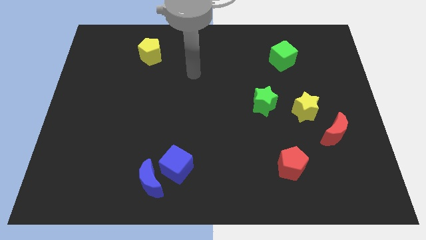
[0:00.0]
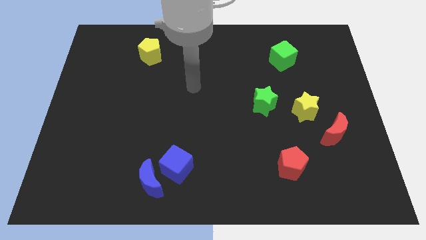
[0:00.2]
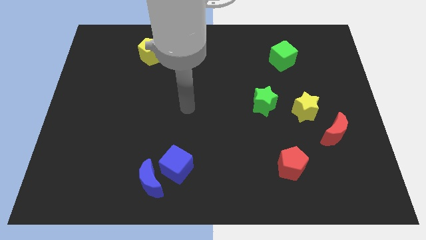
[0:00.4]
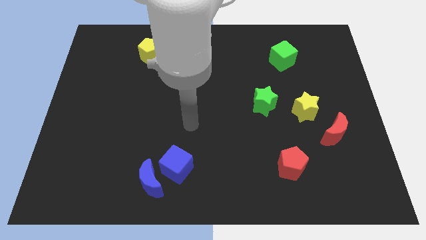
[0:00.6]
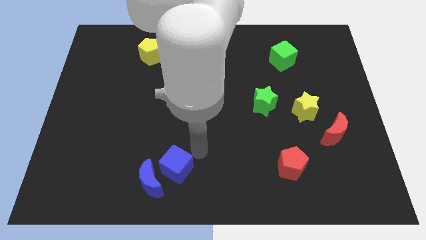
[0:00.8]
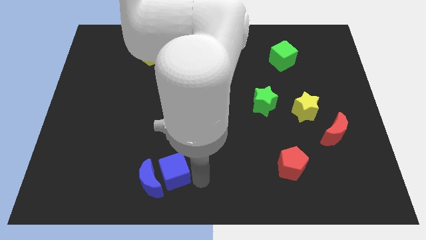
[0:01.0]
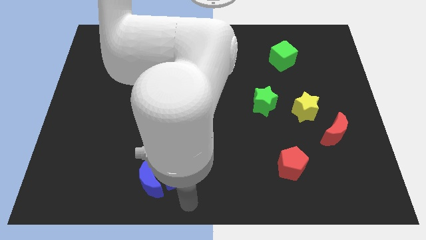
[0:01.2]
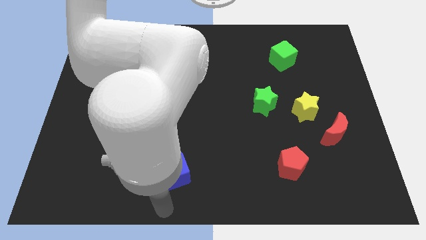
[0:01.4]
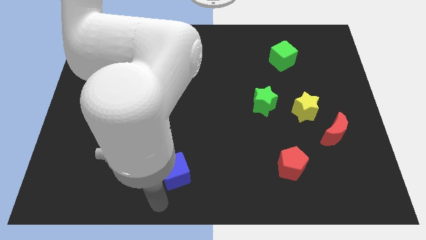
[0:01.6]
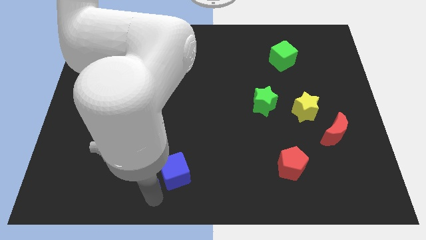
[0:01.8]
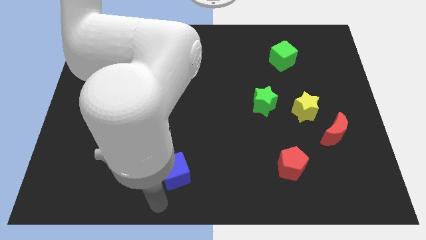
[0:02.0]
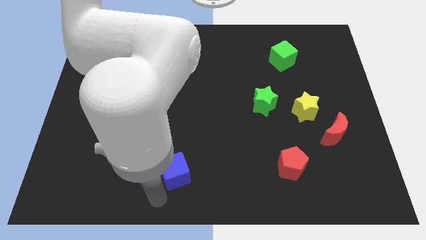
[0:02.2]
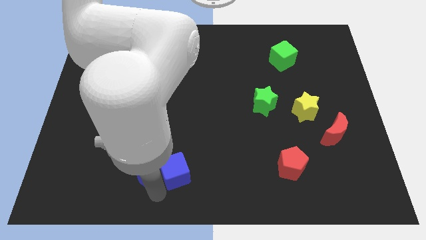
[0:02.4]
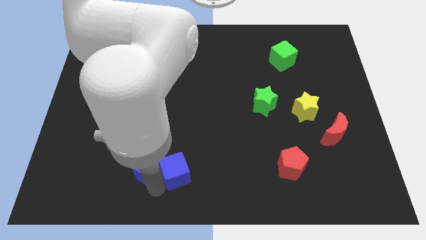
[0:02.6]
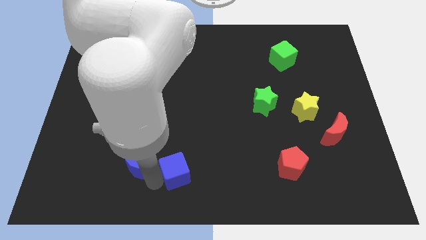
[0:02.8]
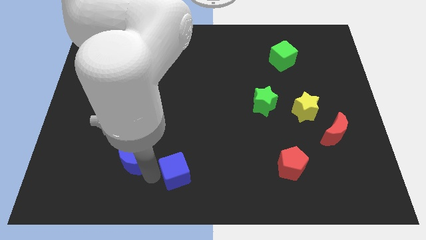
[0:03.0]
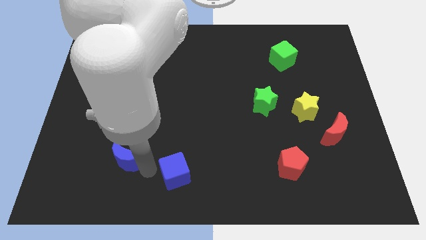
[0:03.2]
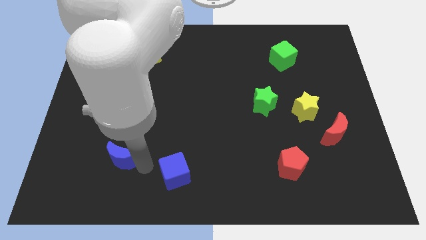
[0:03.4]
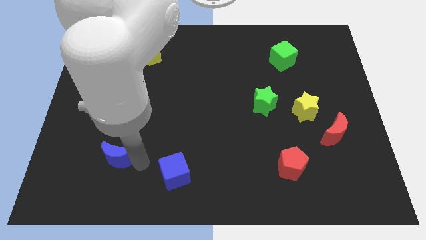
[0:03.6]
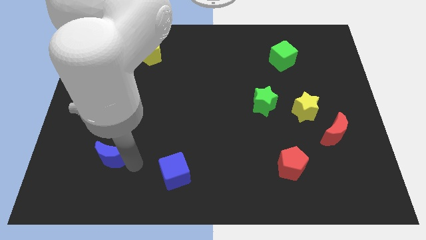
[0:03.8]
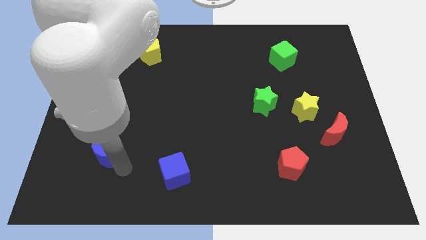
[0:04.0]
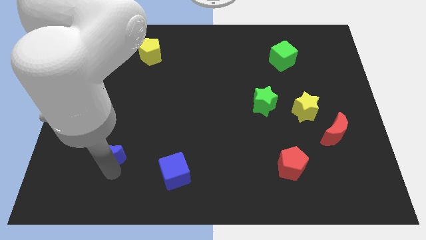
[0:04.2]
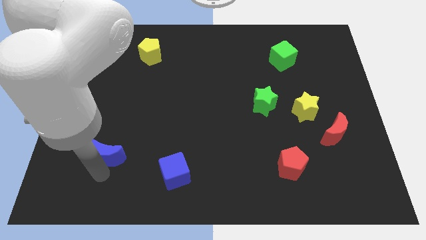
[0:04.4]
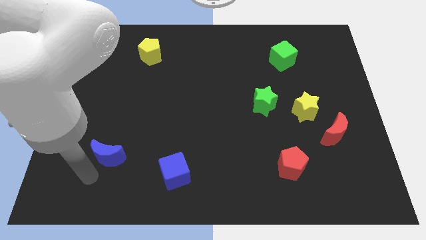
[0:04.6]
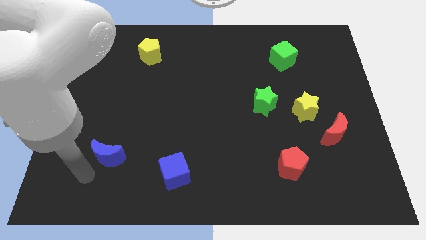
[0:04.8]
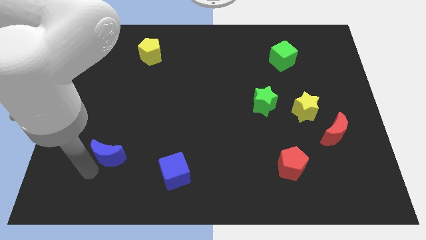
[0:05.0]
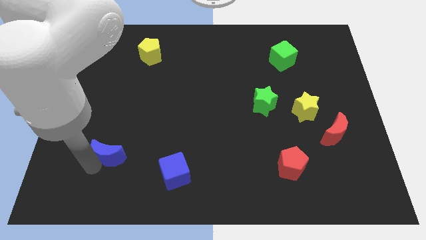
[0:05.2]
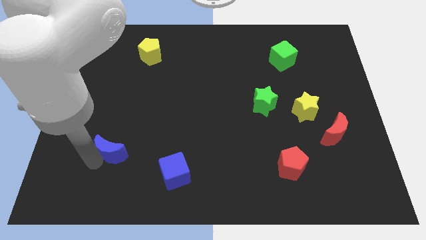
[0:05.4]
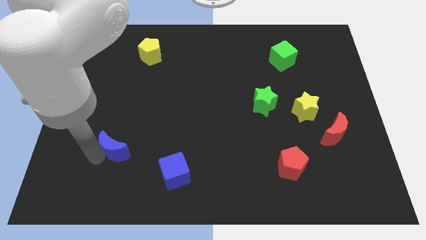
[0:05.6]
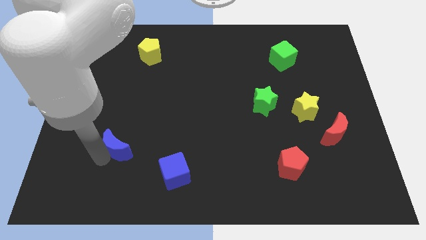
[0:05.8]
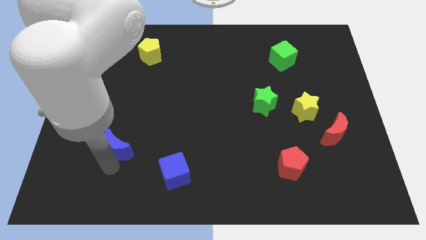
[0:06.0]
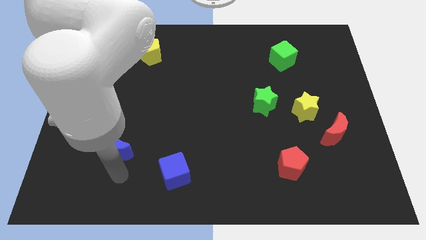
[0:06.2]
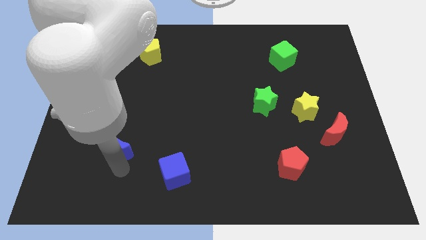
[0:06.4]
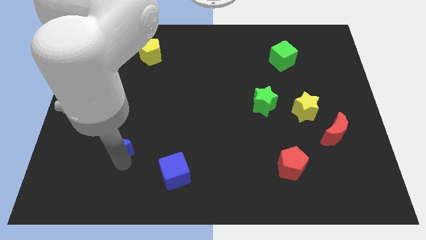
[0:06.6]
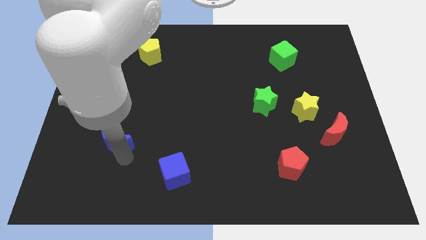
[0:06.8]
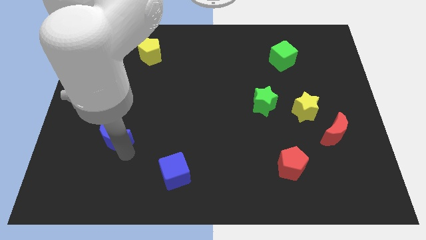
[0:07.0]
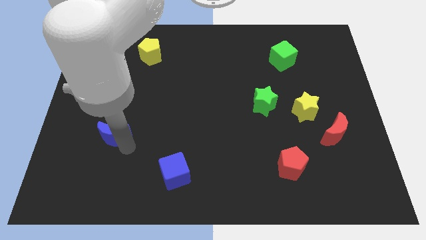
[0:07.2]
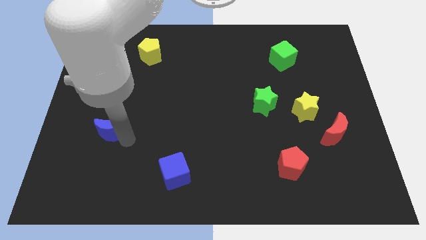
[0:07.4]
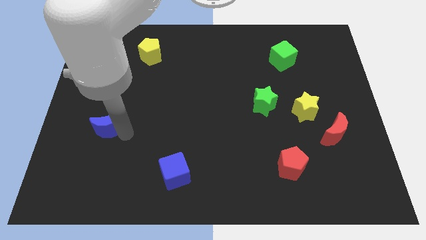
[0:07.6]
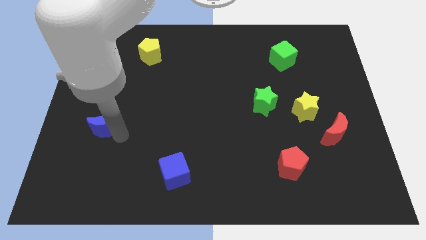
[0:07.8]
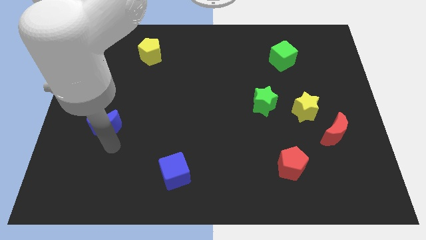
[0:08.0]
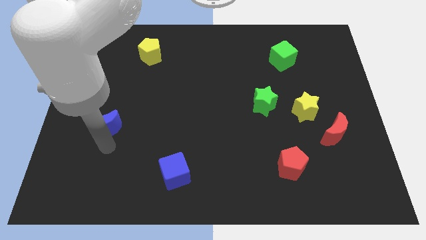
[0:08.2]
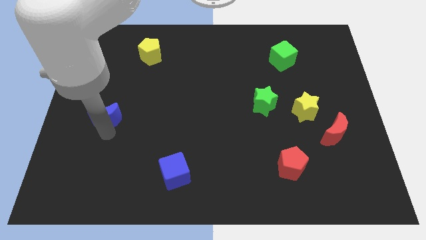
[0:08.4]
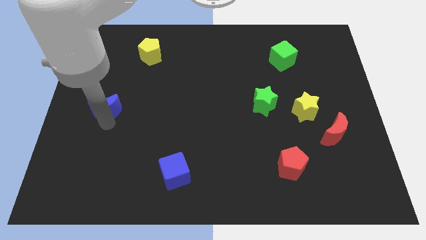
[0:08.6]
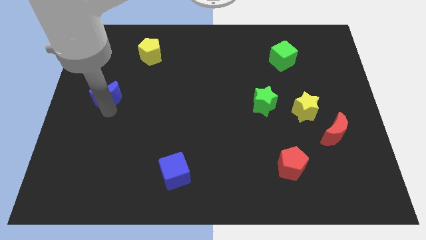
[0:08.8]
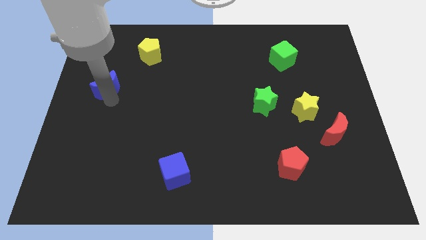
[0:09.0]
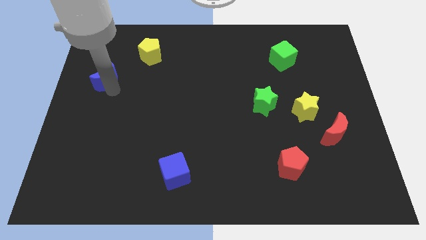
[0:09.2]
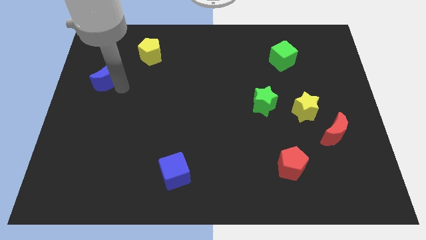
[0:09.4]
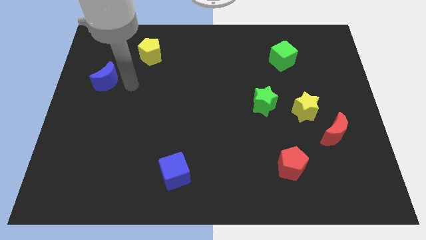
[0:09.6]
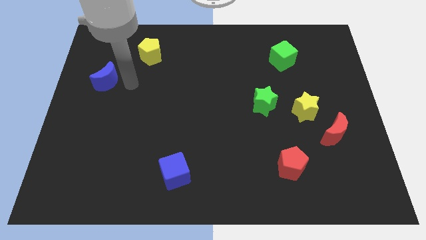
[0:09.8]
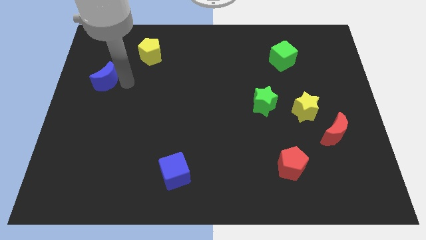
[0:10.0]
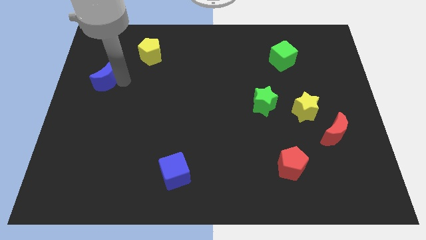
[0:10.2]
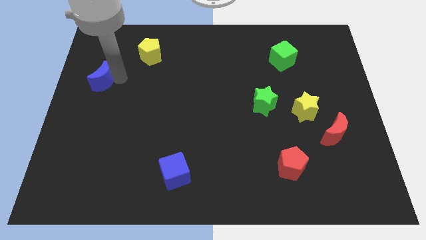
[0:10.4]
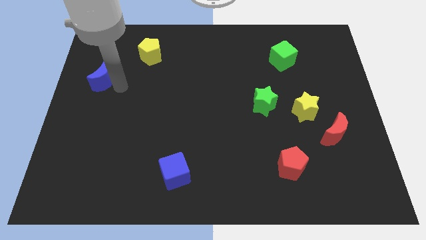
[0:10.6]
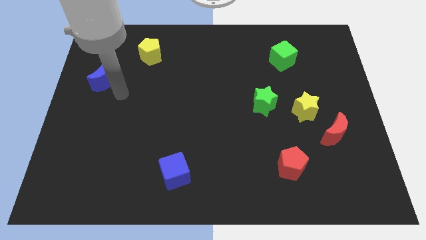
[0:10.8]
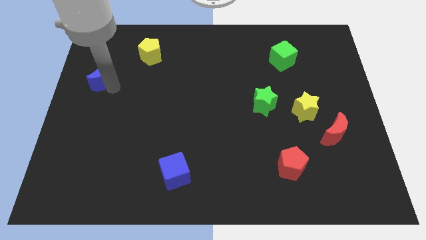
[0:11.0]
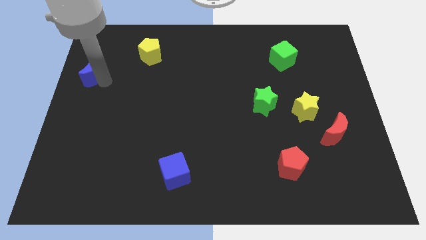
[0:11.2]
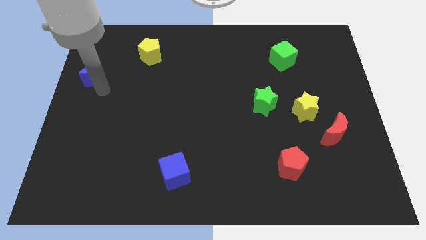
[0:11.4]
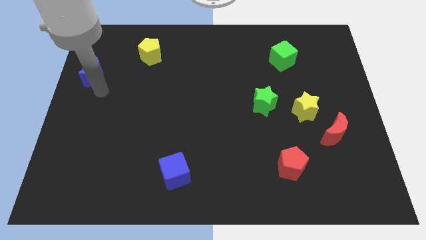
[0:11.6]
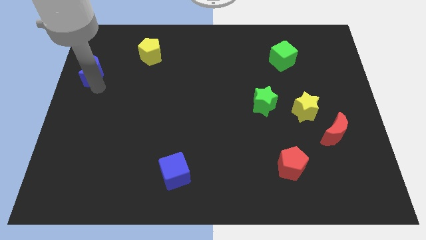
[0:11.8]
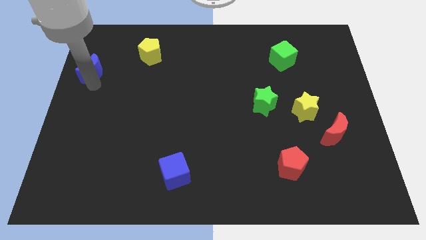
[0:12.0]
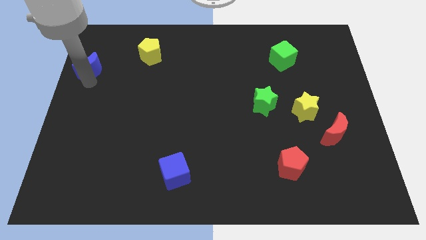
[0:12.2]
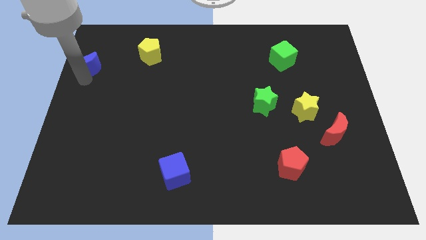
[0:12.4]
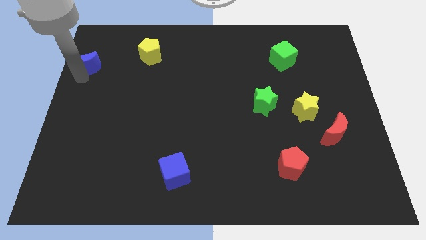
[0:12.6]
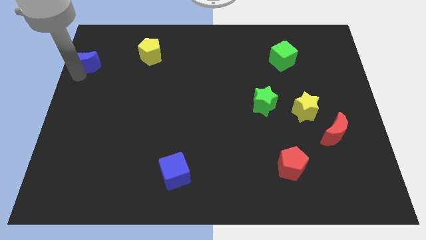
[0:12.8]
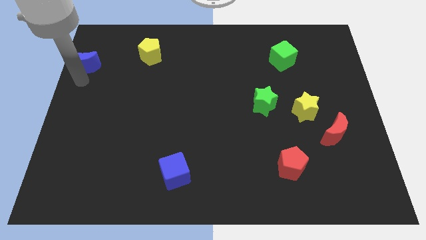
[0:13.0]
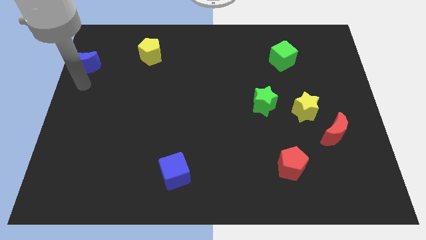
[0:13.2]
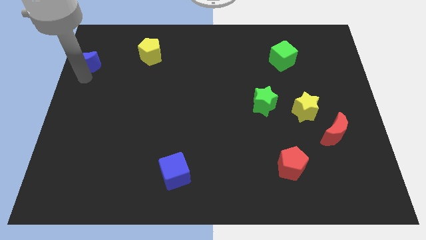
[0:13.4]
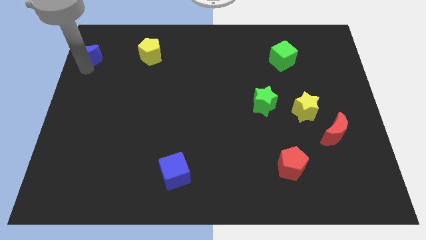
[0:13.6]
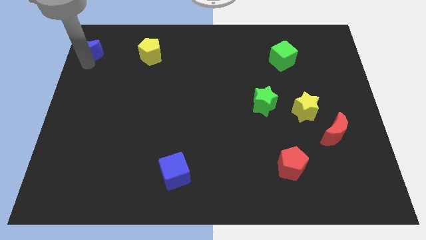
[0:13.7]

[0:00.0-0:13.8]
slide the blue moon to the upper left corner
